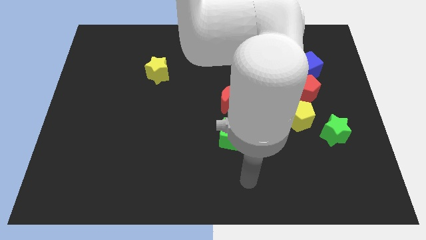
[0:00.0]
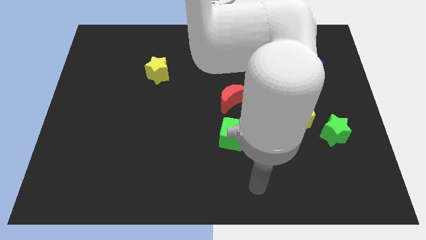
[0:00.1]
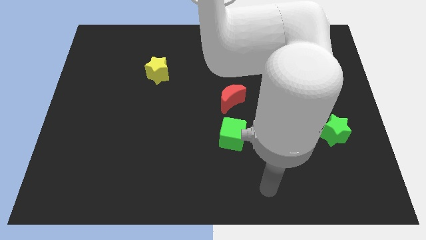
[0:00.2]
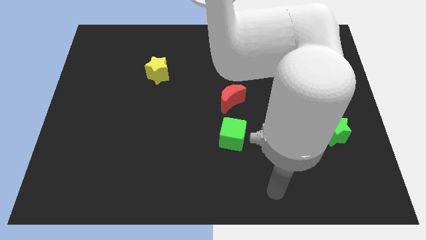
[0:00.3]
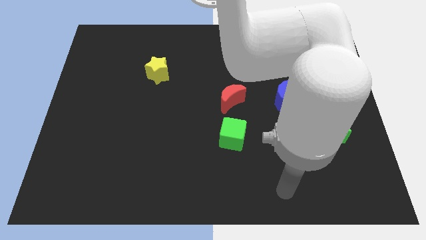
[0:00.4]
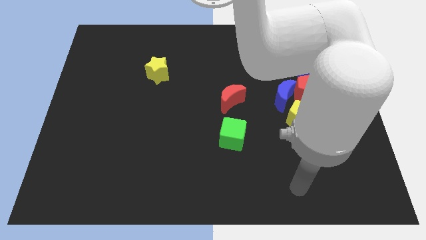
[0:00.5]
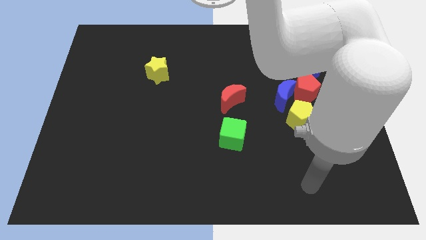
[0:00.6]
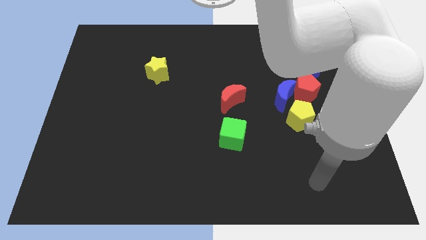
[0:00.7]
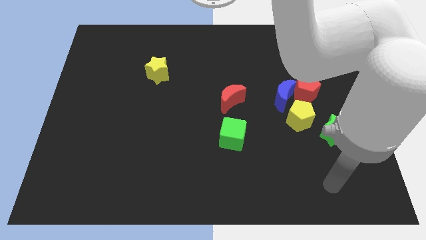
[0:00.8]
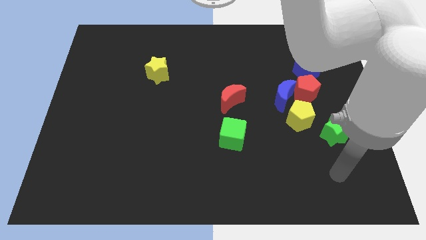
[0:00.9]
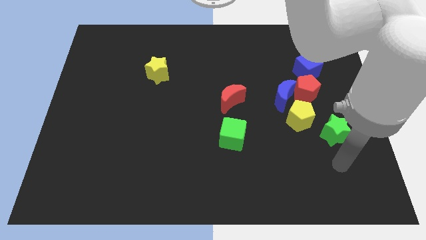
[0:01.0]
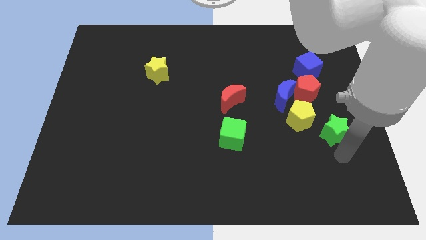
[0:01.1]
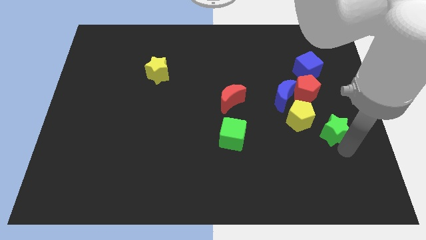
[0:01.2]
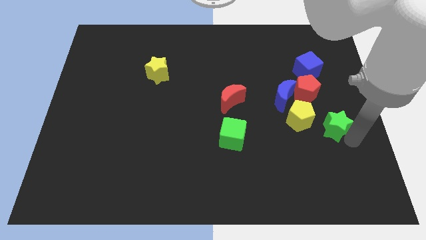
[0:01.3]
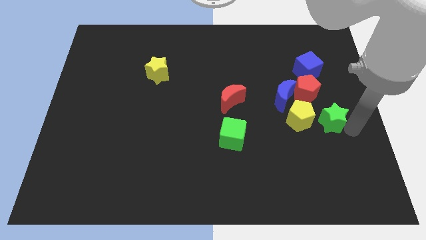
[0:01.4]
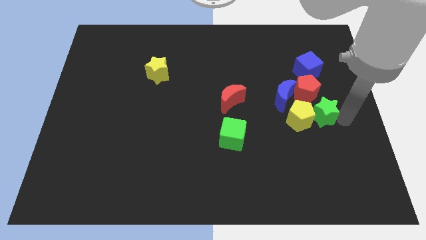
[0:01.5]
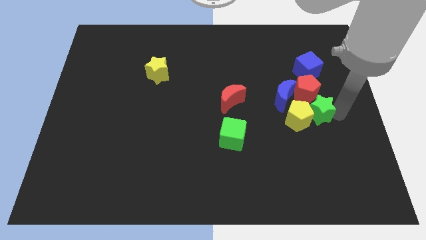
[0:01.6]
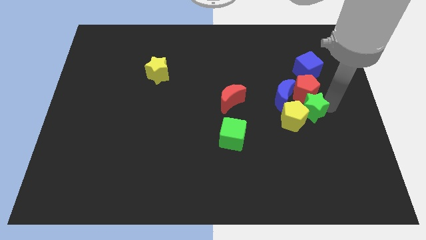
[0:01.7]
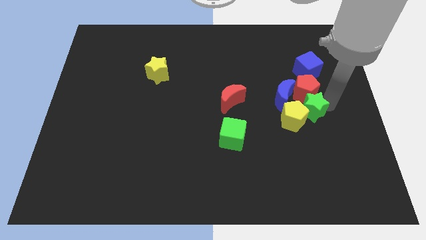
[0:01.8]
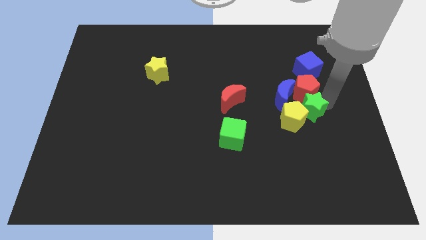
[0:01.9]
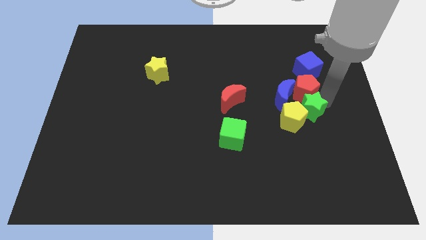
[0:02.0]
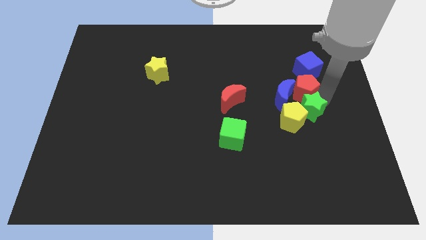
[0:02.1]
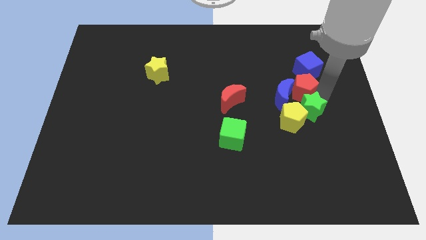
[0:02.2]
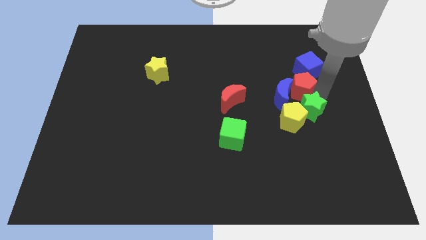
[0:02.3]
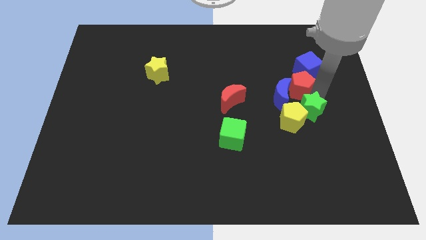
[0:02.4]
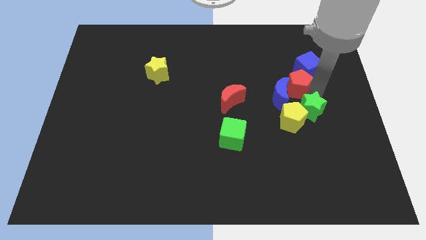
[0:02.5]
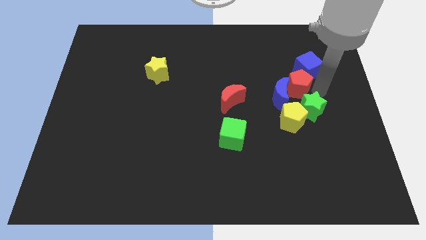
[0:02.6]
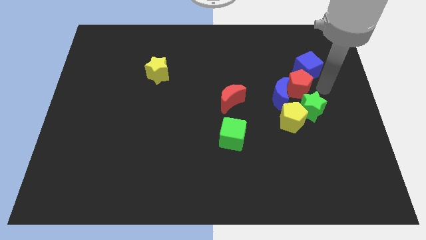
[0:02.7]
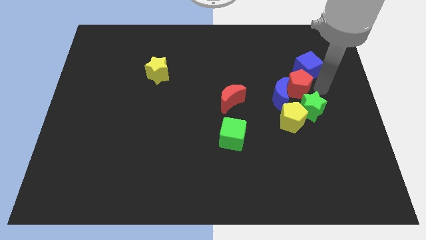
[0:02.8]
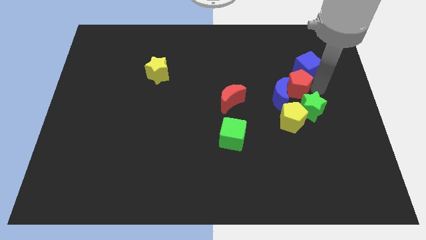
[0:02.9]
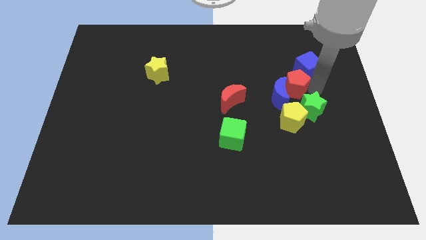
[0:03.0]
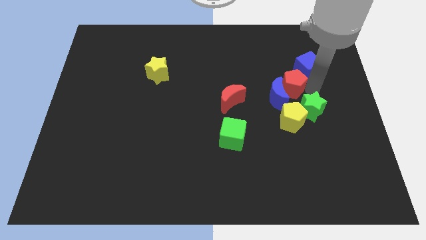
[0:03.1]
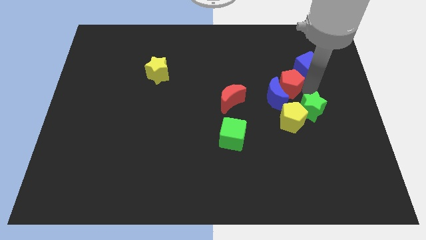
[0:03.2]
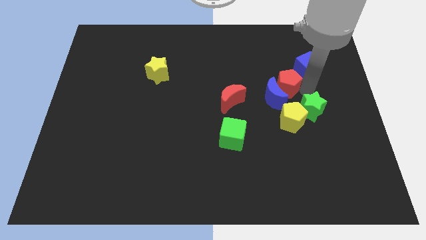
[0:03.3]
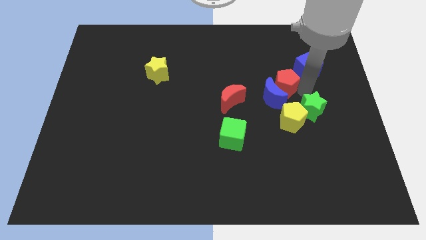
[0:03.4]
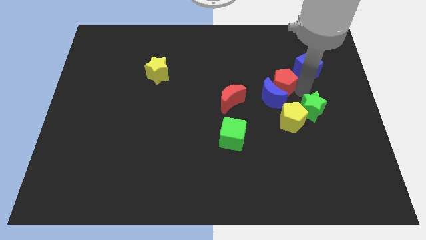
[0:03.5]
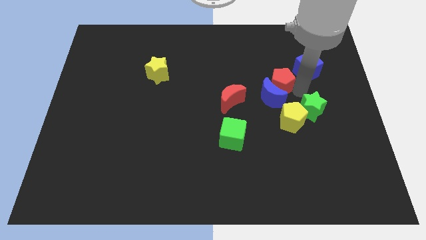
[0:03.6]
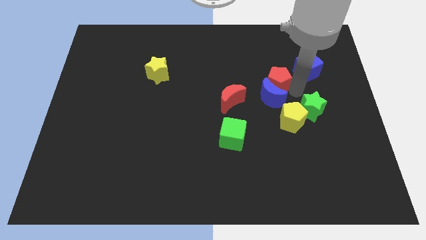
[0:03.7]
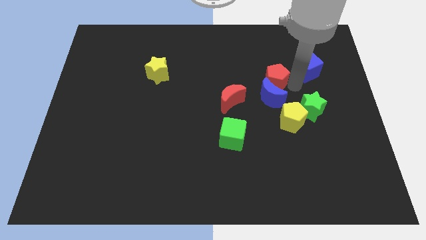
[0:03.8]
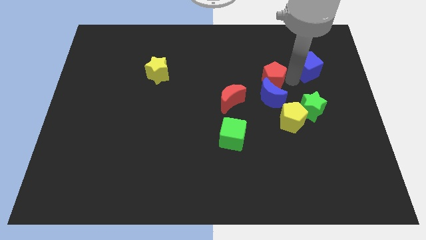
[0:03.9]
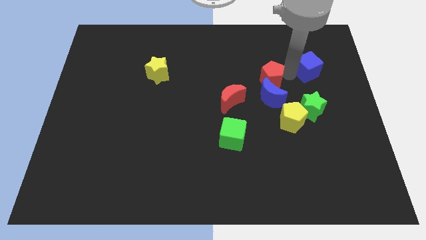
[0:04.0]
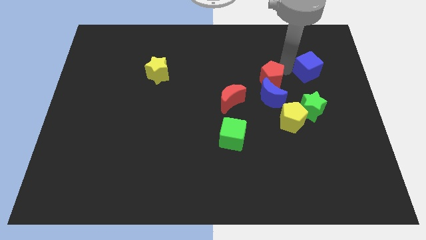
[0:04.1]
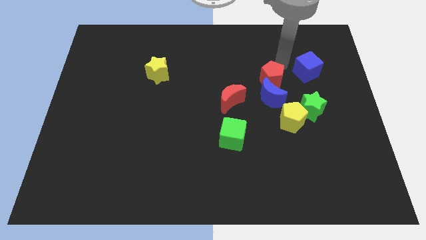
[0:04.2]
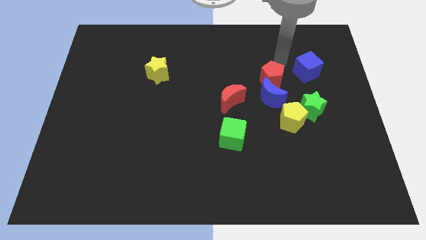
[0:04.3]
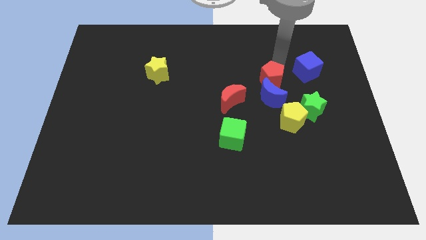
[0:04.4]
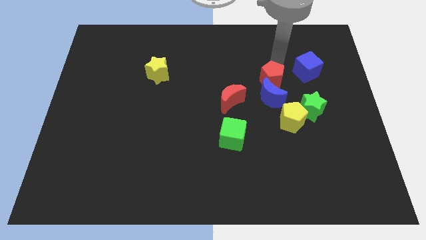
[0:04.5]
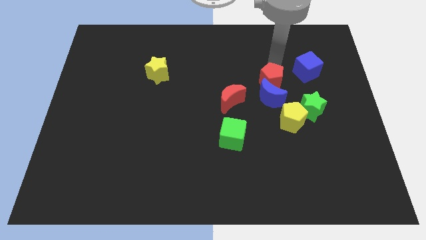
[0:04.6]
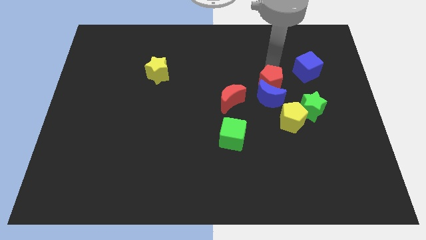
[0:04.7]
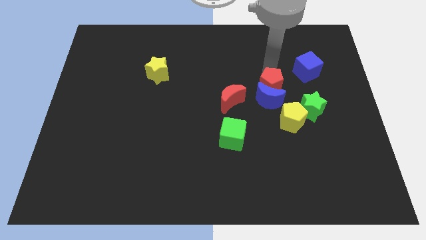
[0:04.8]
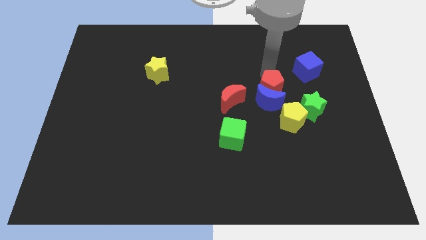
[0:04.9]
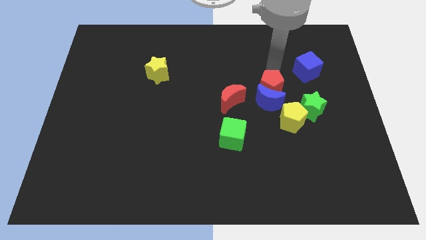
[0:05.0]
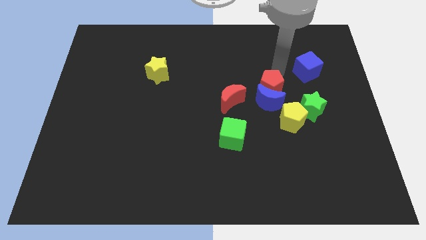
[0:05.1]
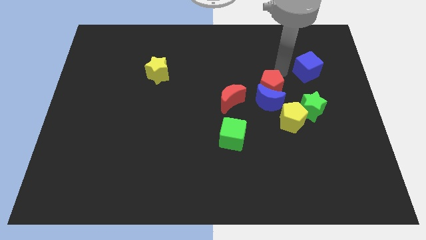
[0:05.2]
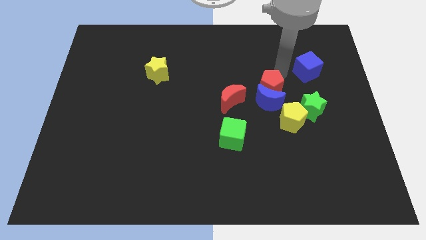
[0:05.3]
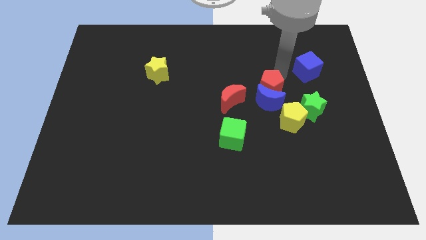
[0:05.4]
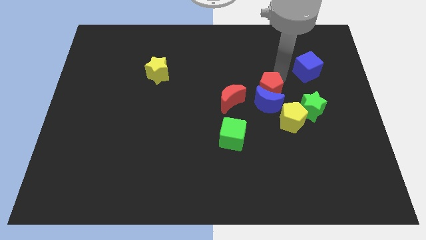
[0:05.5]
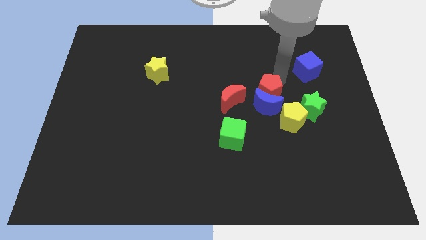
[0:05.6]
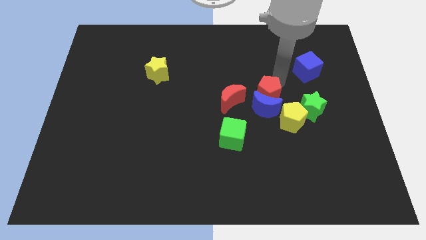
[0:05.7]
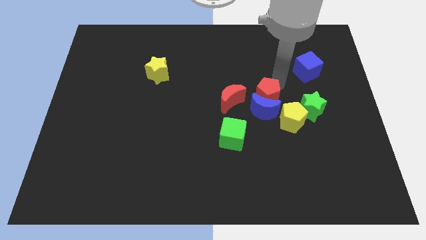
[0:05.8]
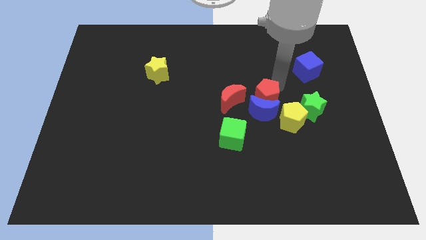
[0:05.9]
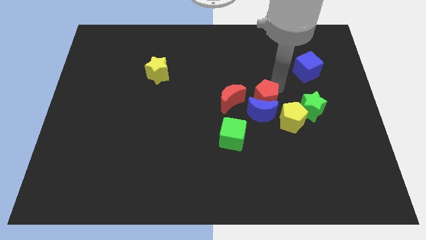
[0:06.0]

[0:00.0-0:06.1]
slightly push the red pentagon downwards and then to the left

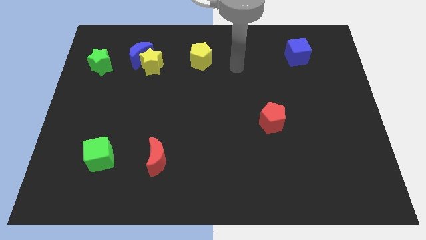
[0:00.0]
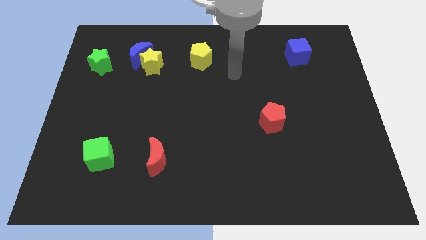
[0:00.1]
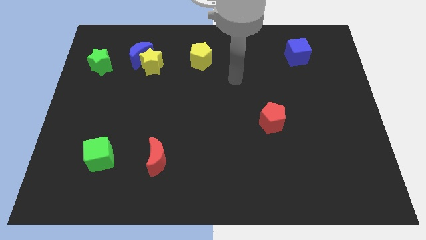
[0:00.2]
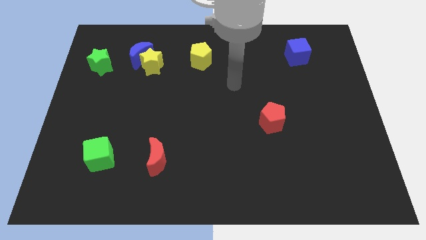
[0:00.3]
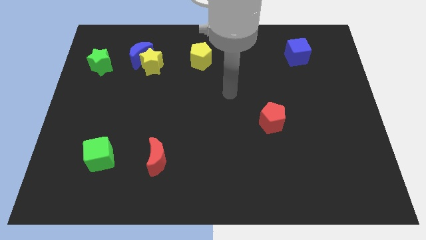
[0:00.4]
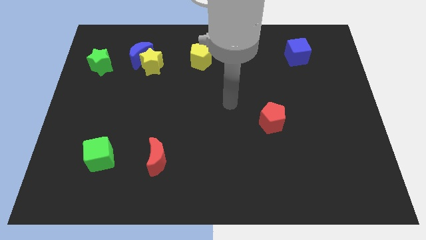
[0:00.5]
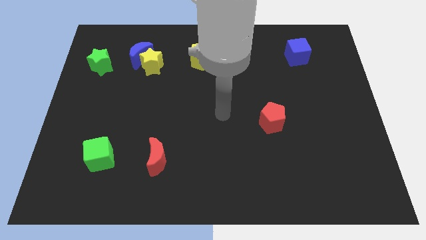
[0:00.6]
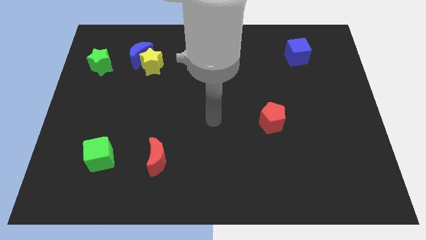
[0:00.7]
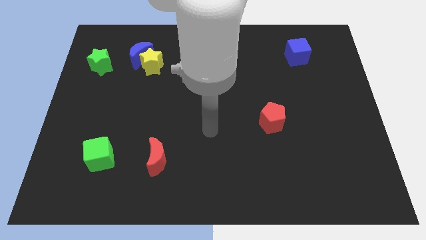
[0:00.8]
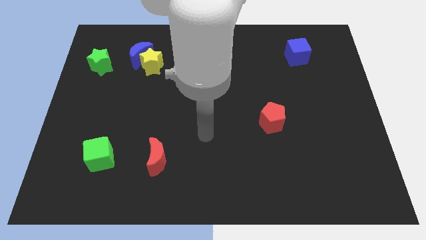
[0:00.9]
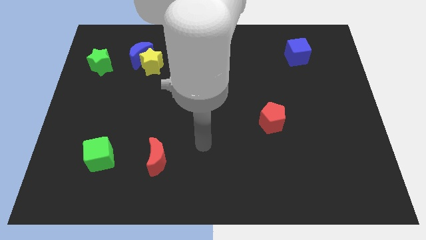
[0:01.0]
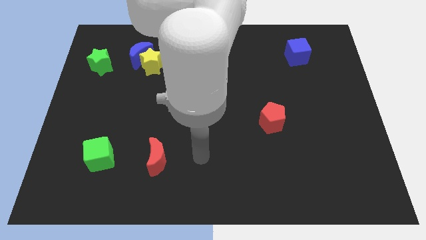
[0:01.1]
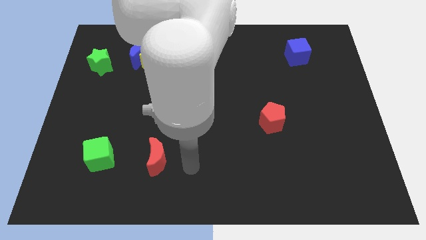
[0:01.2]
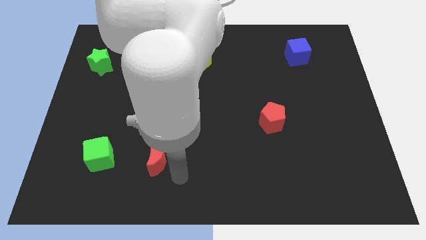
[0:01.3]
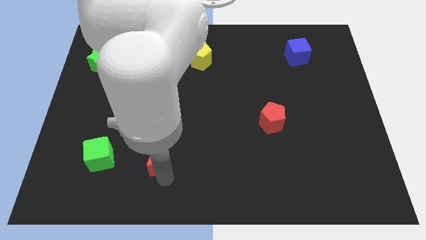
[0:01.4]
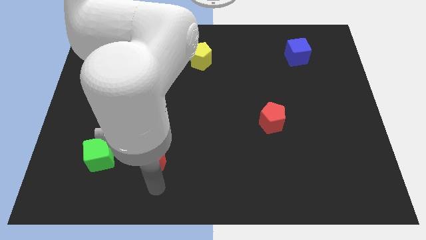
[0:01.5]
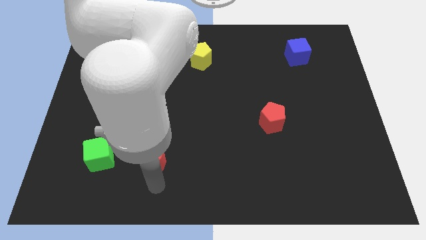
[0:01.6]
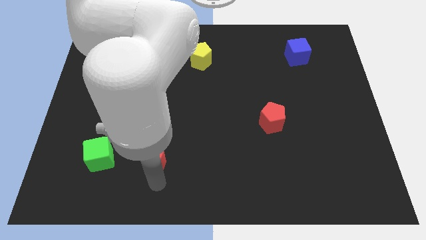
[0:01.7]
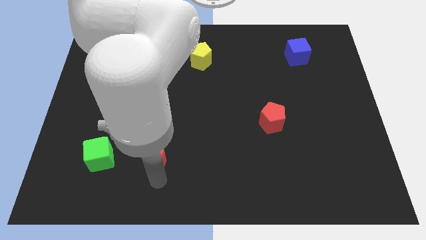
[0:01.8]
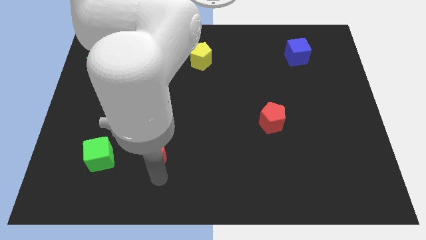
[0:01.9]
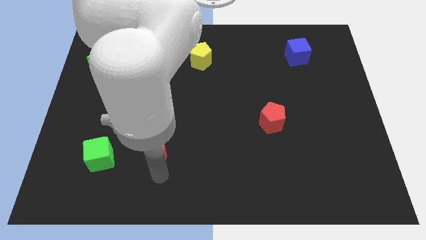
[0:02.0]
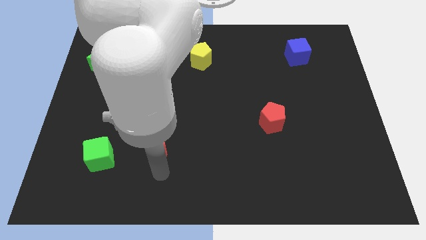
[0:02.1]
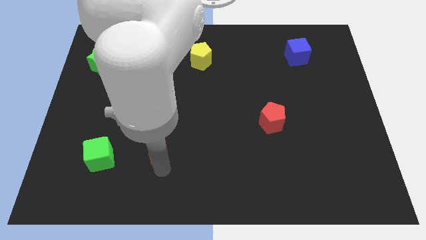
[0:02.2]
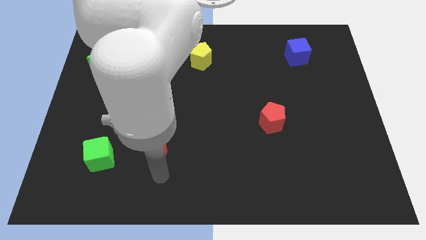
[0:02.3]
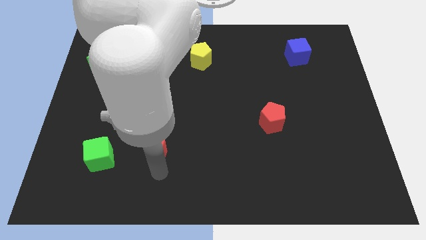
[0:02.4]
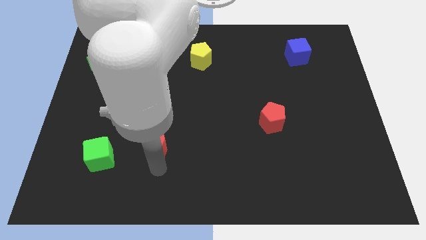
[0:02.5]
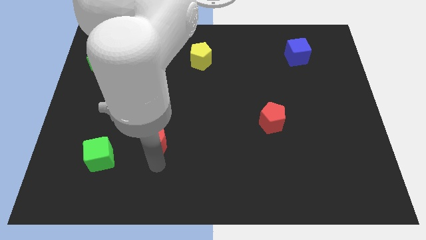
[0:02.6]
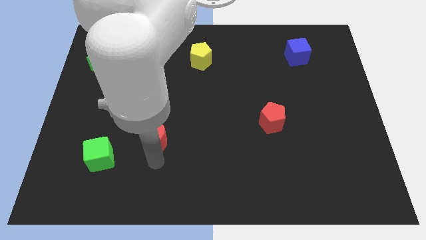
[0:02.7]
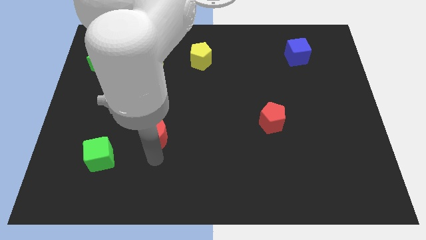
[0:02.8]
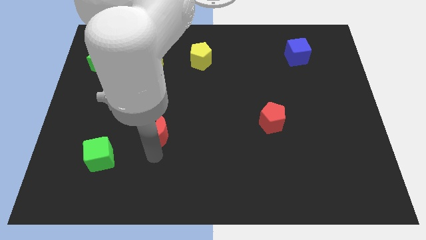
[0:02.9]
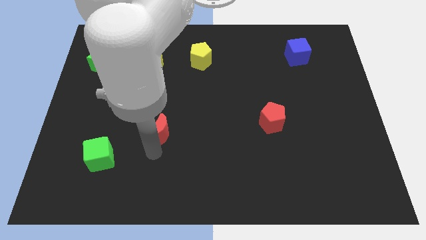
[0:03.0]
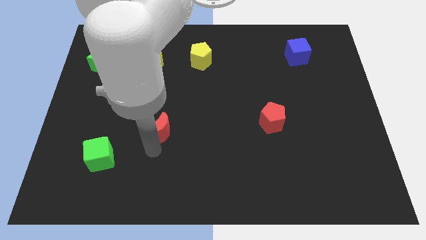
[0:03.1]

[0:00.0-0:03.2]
push the red moon upwards a little bit
